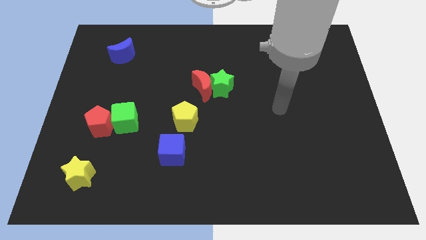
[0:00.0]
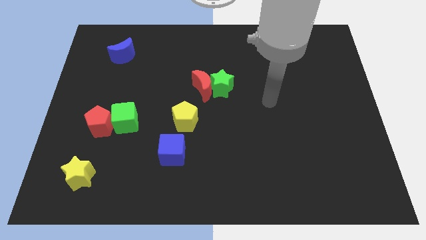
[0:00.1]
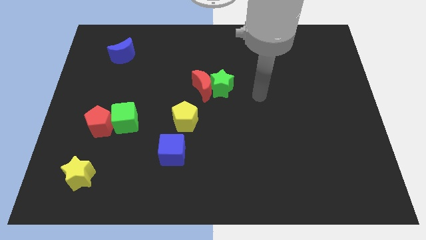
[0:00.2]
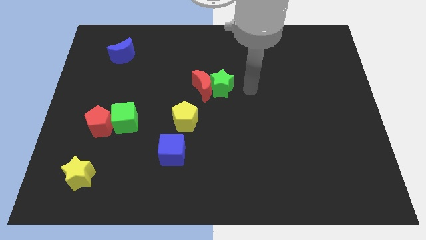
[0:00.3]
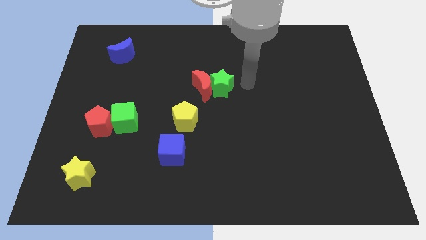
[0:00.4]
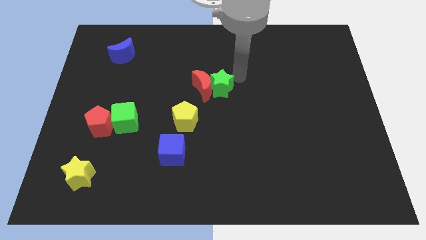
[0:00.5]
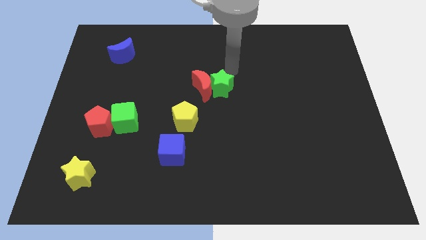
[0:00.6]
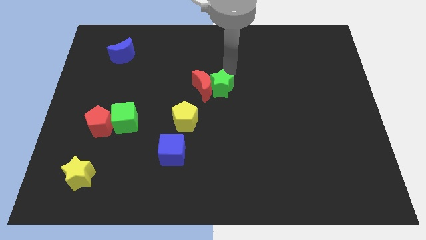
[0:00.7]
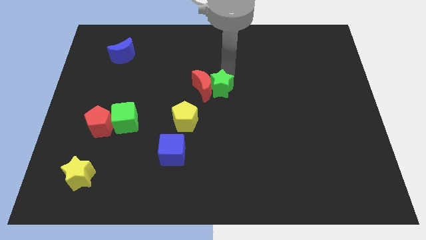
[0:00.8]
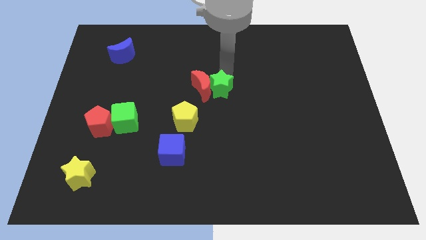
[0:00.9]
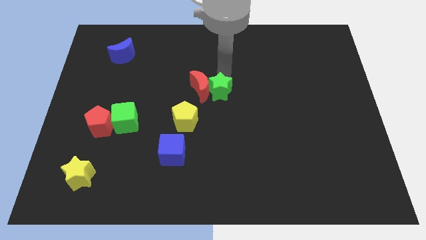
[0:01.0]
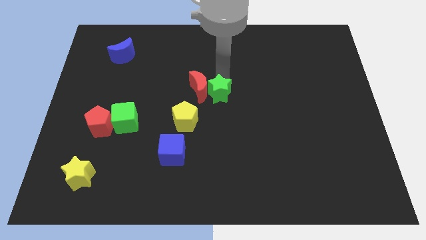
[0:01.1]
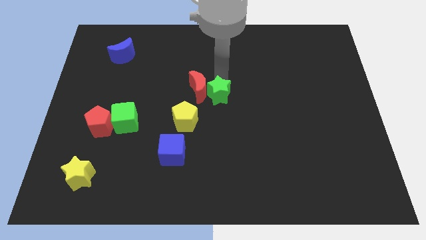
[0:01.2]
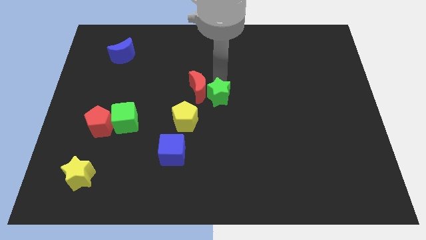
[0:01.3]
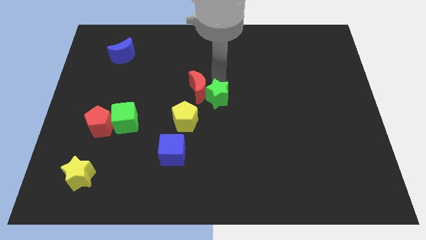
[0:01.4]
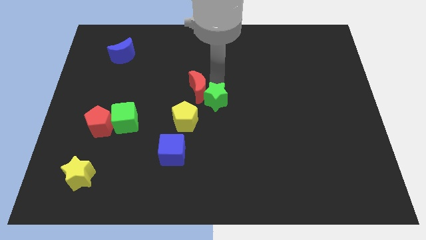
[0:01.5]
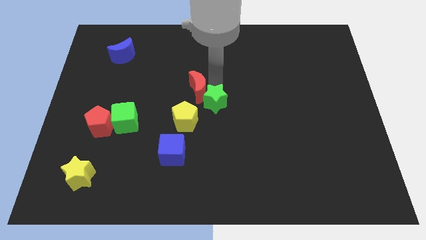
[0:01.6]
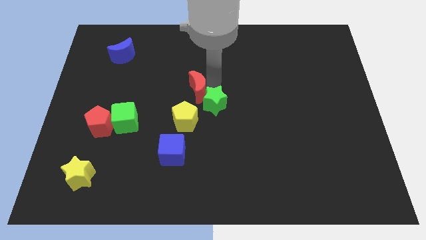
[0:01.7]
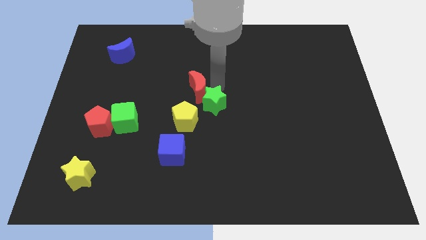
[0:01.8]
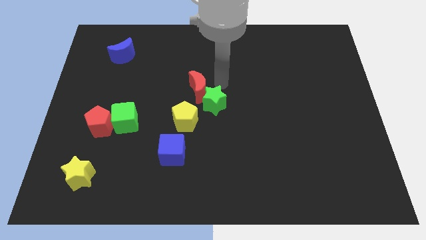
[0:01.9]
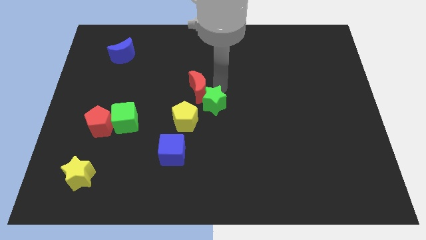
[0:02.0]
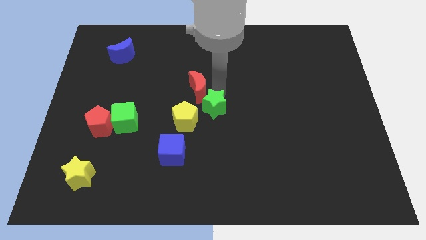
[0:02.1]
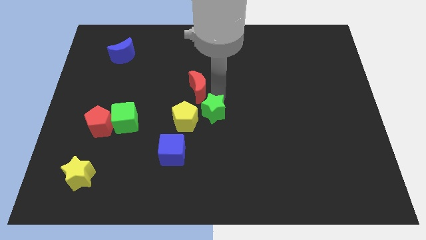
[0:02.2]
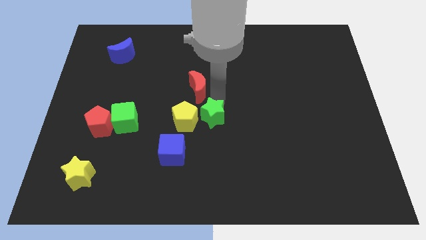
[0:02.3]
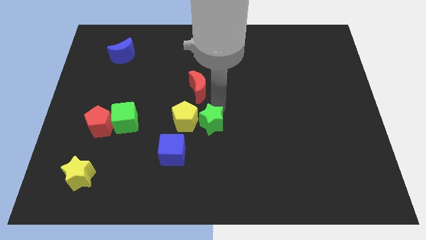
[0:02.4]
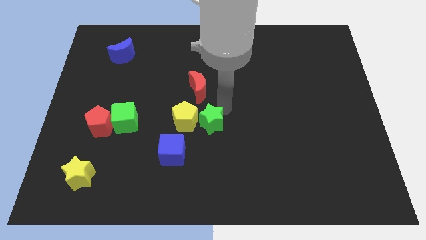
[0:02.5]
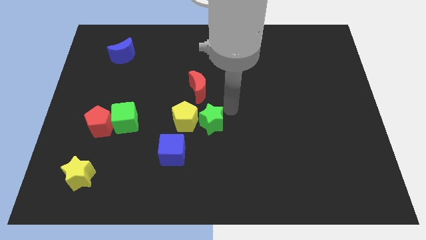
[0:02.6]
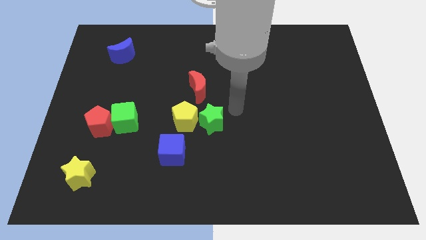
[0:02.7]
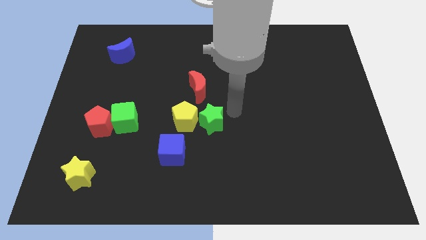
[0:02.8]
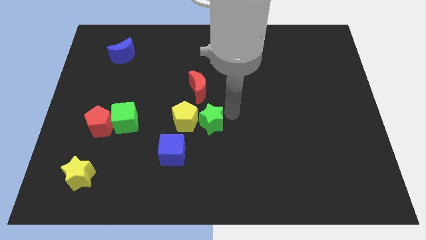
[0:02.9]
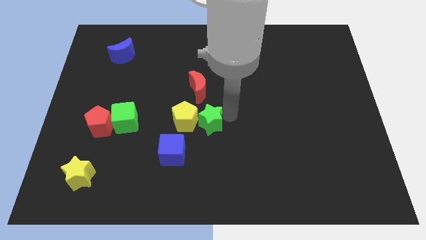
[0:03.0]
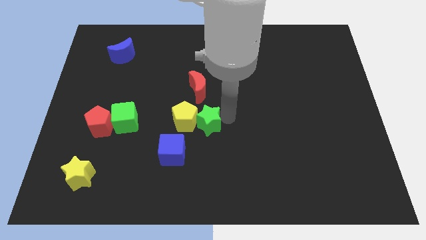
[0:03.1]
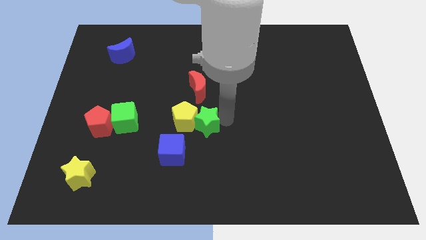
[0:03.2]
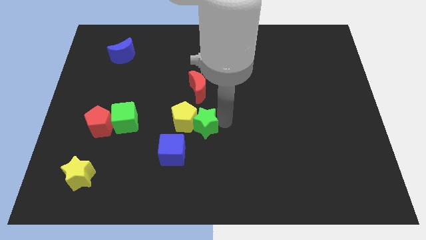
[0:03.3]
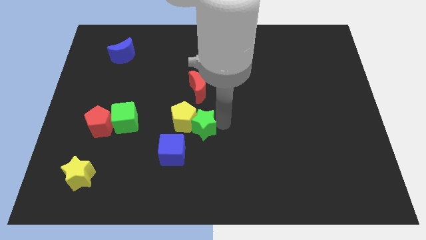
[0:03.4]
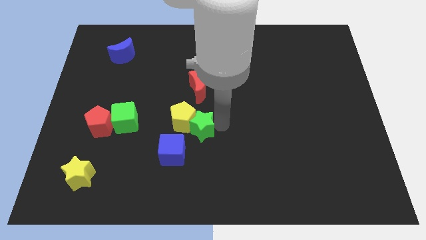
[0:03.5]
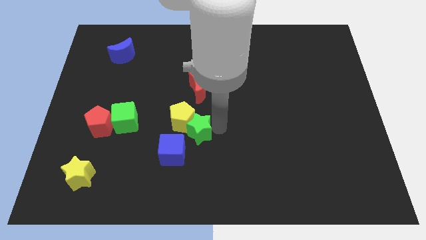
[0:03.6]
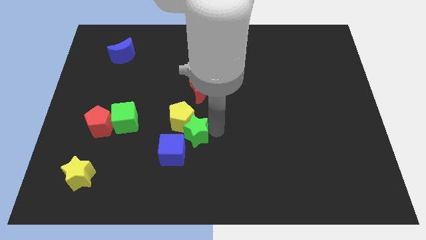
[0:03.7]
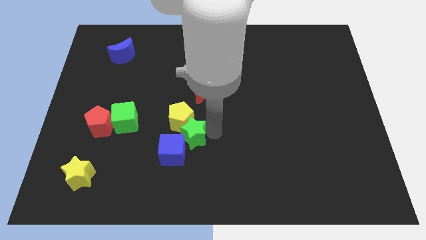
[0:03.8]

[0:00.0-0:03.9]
move the green star close to the blue cube

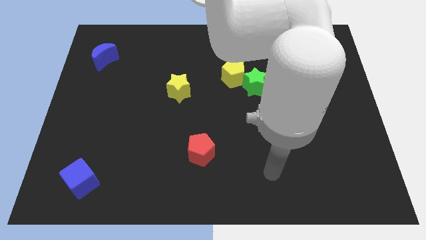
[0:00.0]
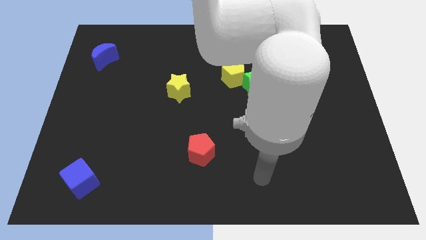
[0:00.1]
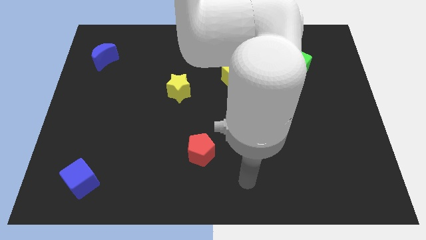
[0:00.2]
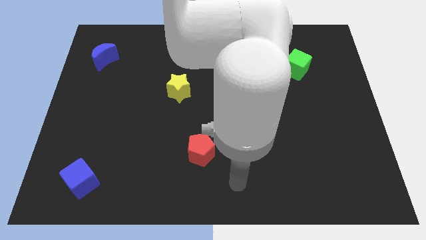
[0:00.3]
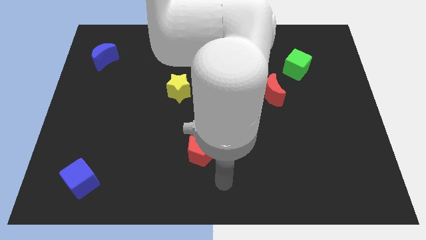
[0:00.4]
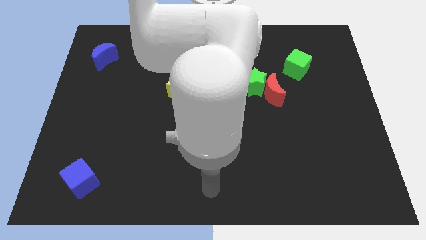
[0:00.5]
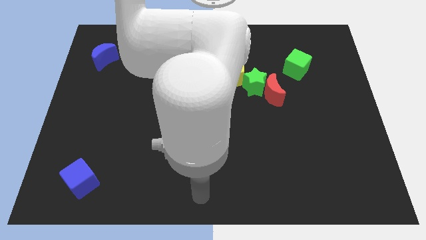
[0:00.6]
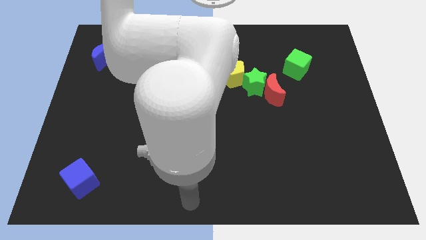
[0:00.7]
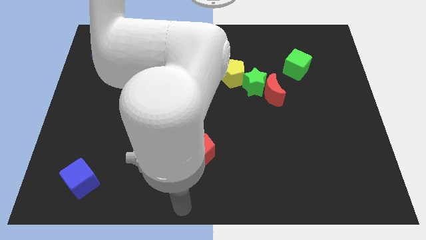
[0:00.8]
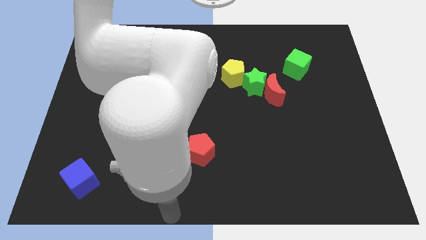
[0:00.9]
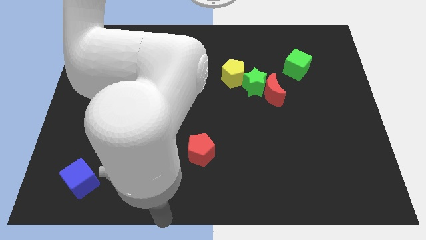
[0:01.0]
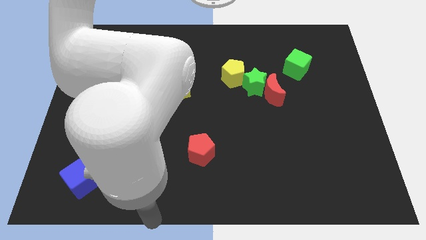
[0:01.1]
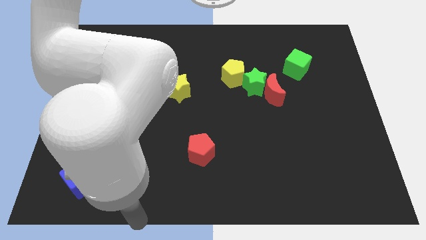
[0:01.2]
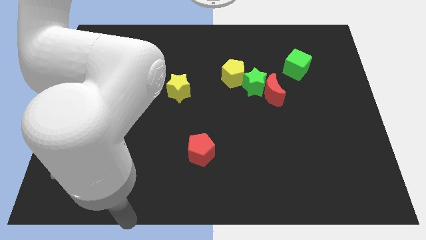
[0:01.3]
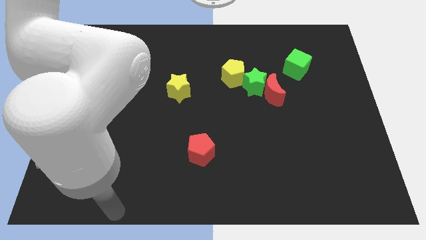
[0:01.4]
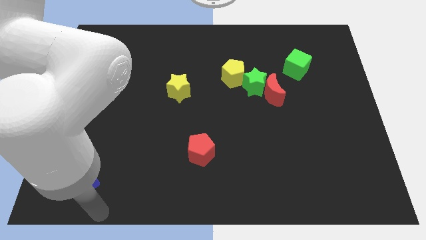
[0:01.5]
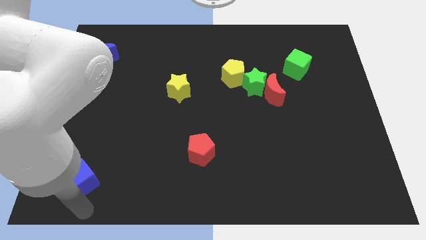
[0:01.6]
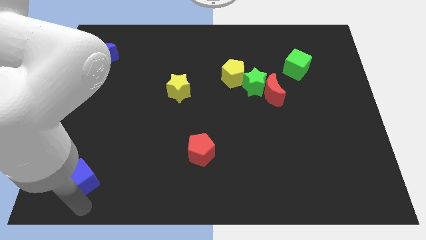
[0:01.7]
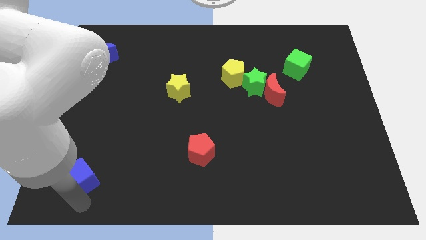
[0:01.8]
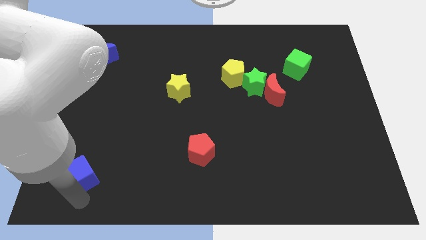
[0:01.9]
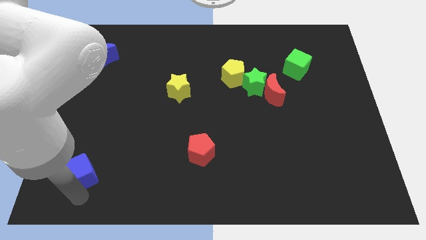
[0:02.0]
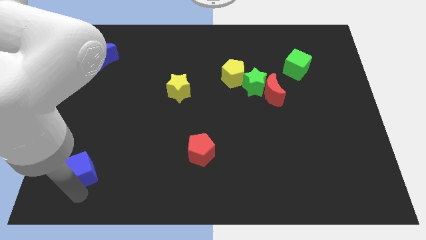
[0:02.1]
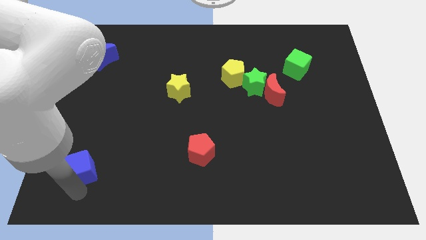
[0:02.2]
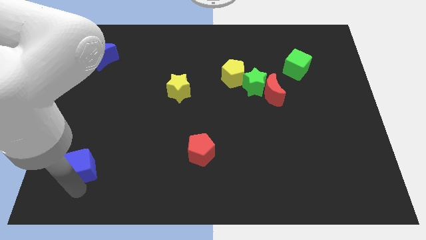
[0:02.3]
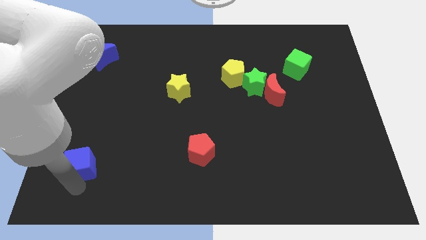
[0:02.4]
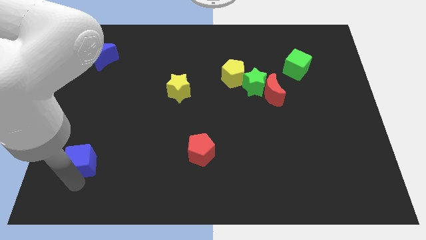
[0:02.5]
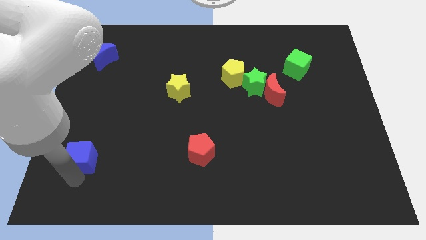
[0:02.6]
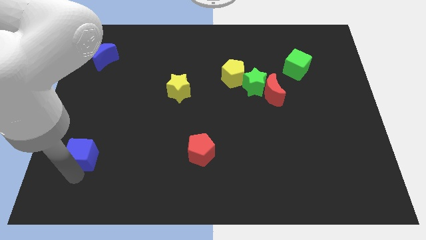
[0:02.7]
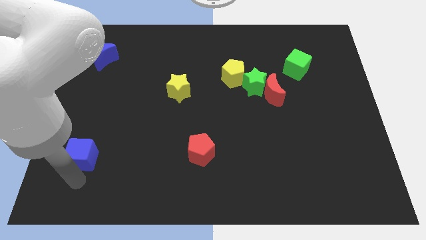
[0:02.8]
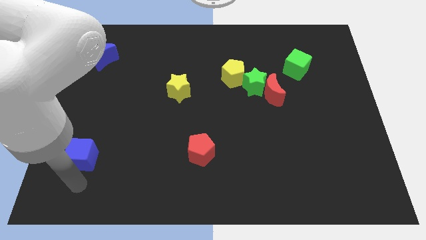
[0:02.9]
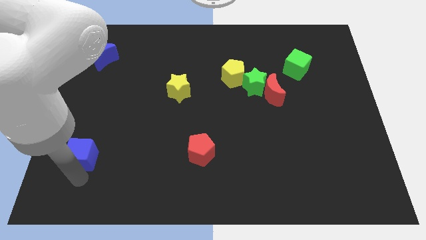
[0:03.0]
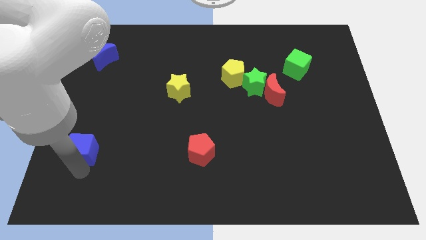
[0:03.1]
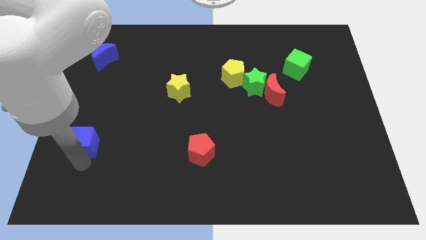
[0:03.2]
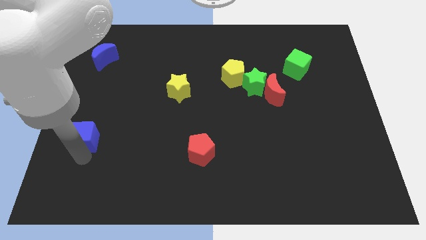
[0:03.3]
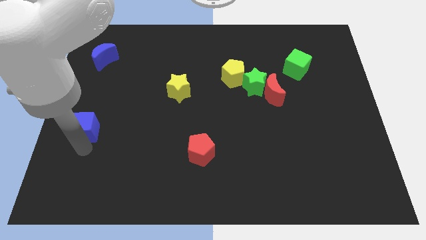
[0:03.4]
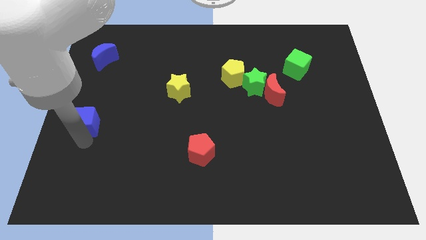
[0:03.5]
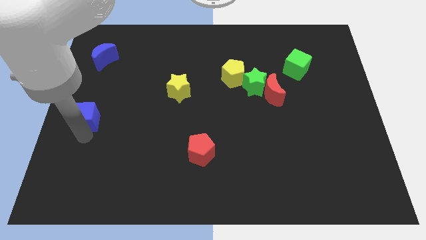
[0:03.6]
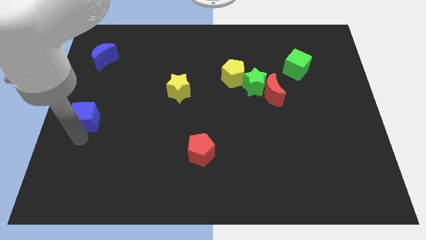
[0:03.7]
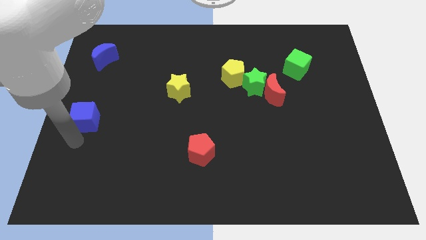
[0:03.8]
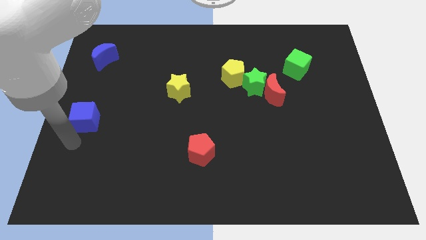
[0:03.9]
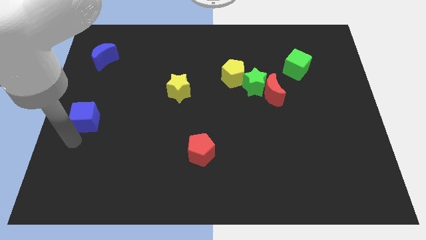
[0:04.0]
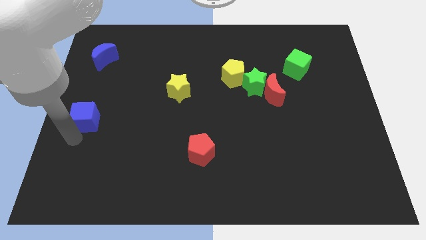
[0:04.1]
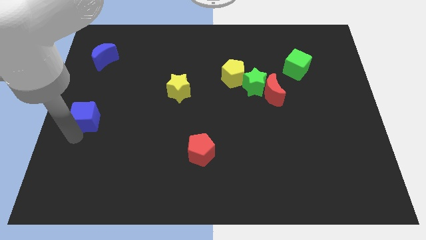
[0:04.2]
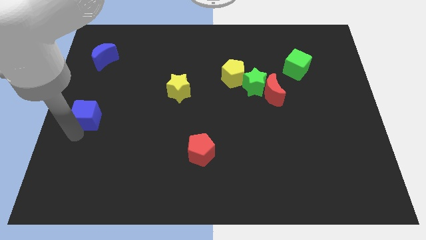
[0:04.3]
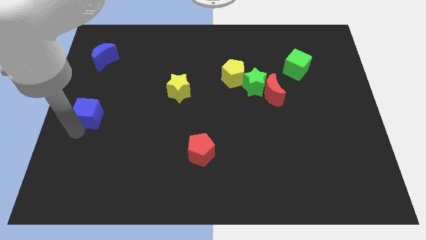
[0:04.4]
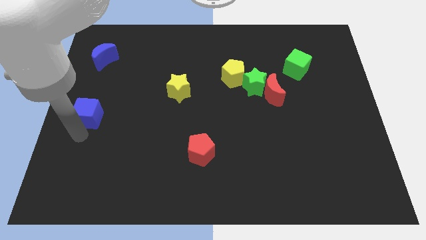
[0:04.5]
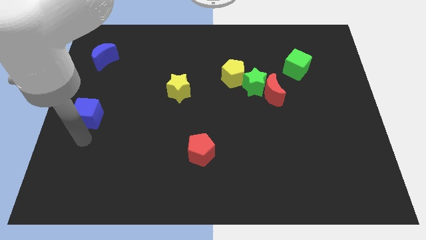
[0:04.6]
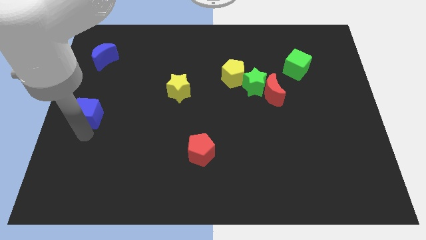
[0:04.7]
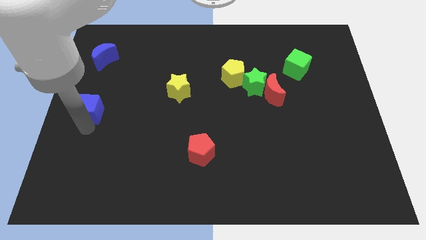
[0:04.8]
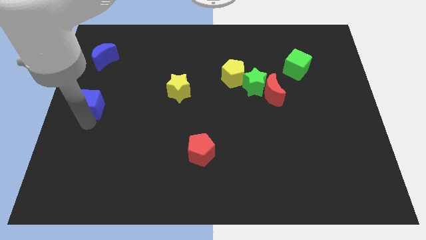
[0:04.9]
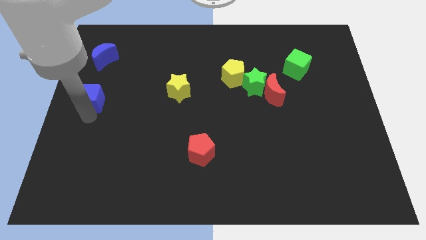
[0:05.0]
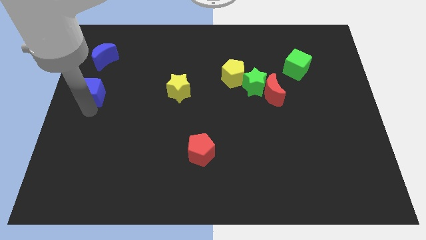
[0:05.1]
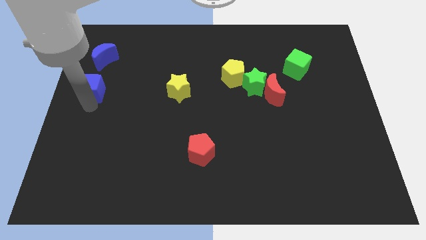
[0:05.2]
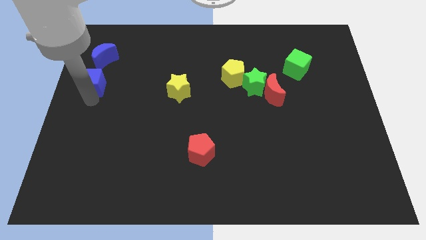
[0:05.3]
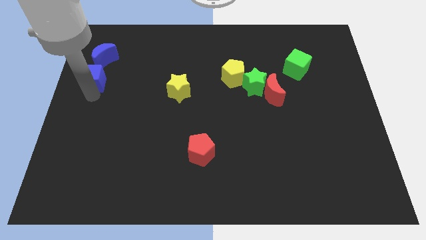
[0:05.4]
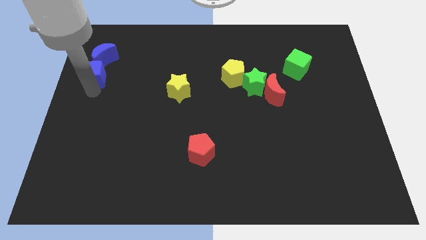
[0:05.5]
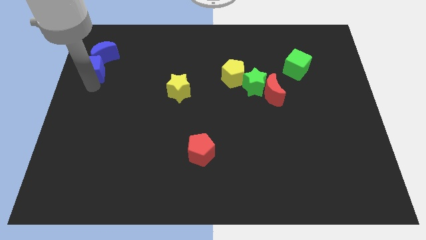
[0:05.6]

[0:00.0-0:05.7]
slide the blue cube towards the blue moon
